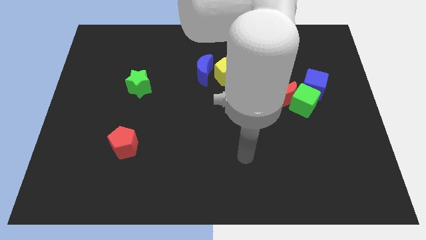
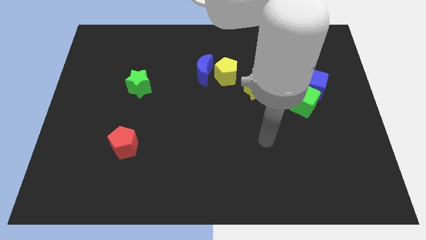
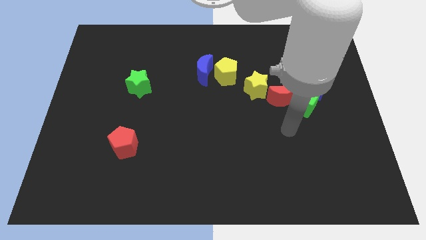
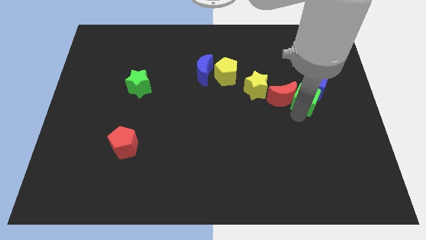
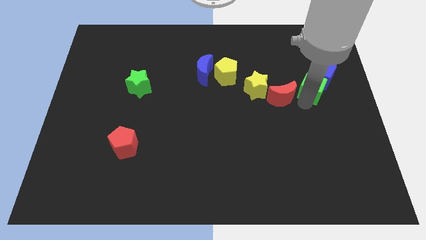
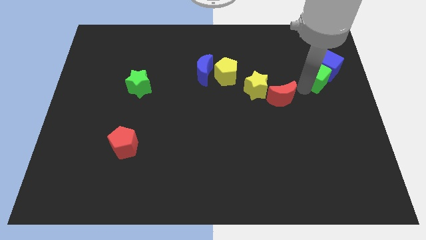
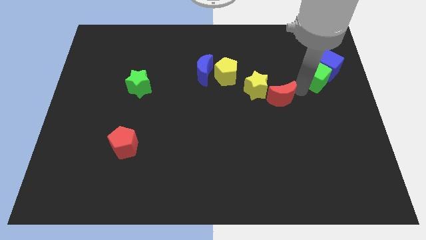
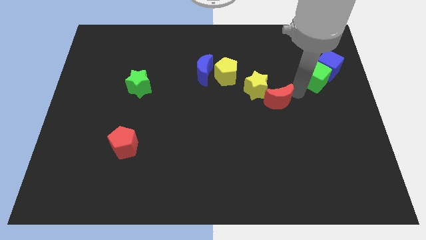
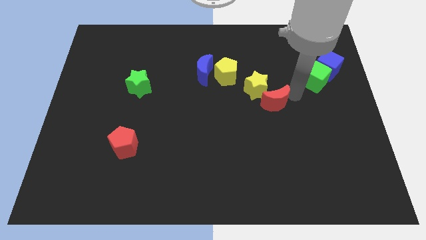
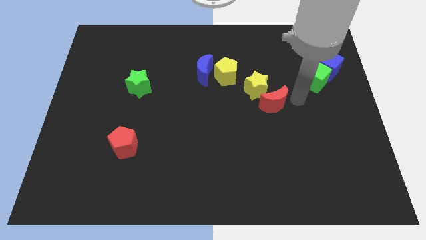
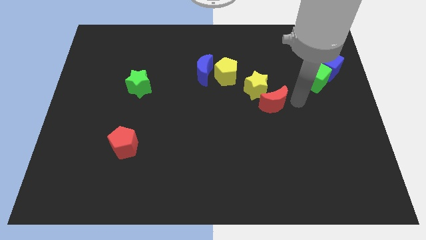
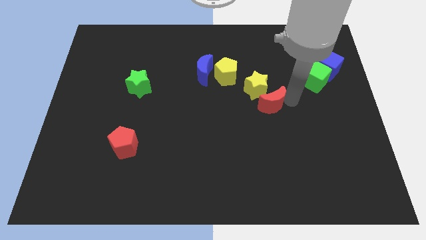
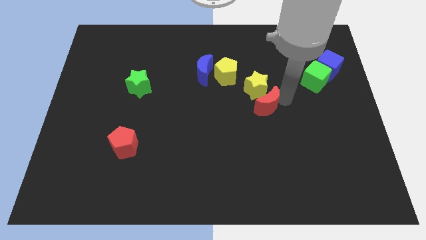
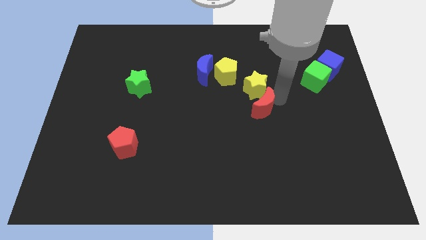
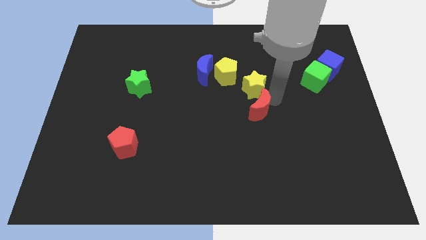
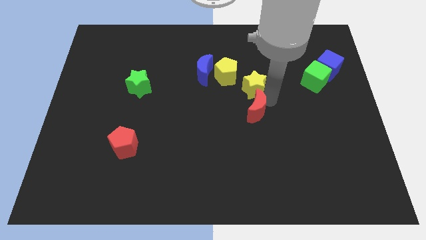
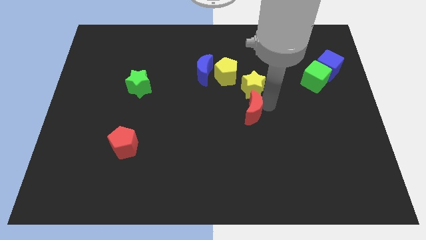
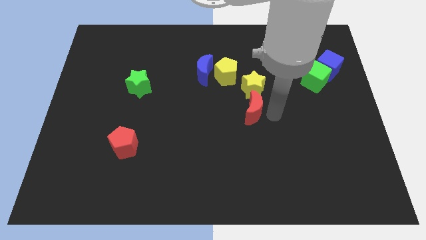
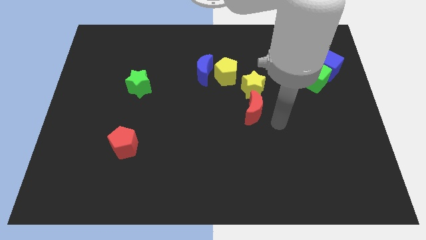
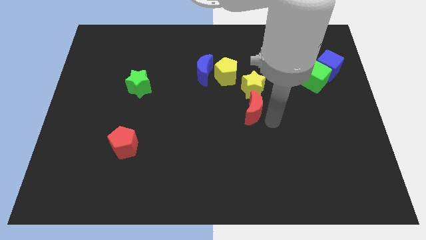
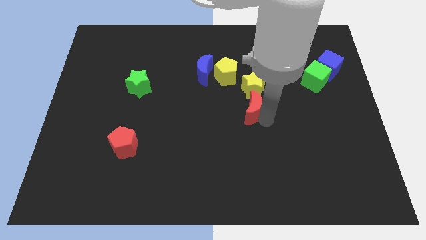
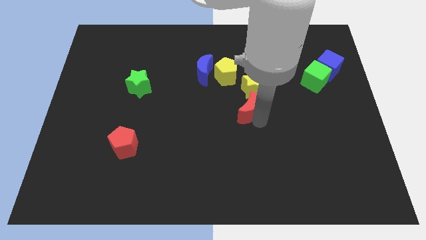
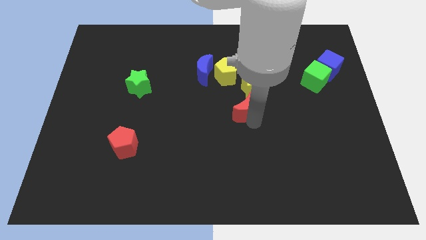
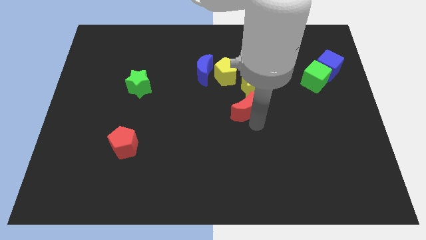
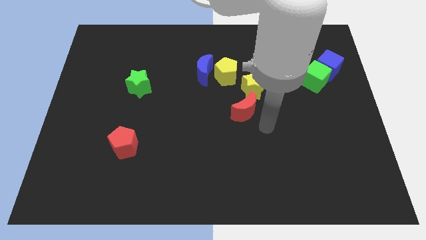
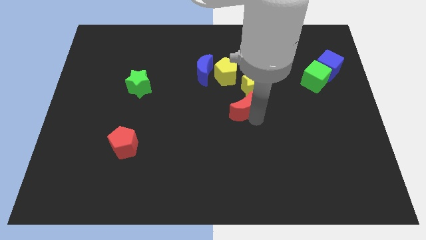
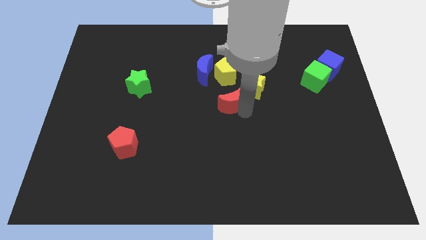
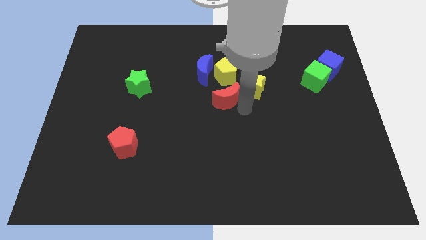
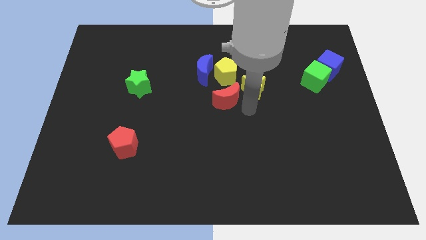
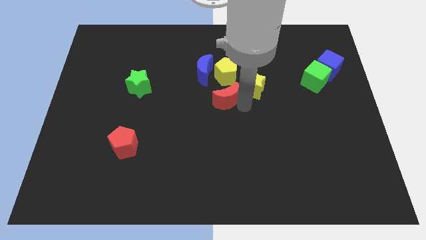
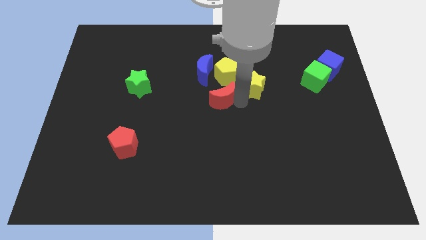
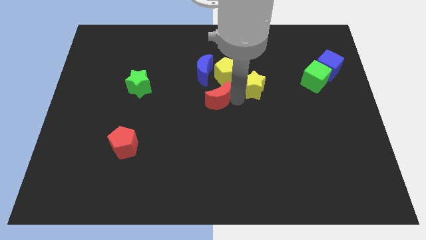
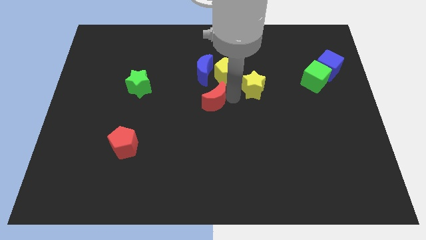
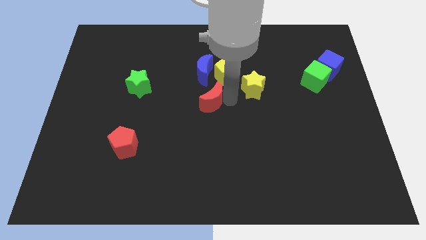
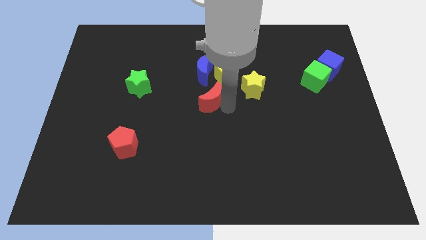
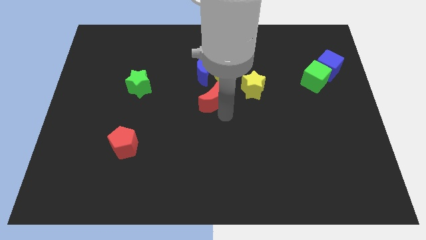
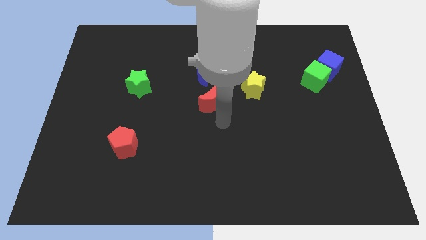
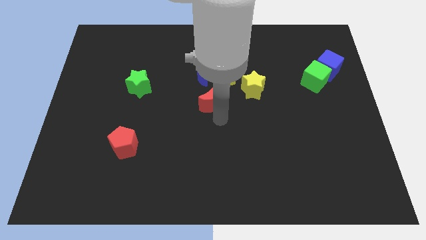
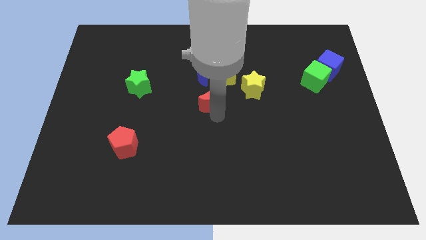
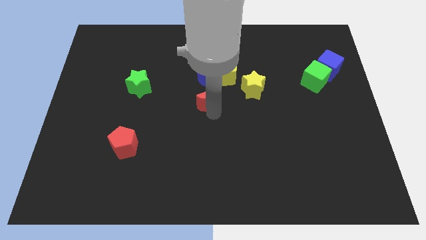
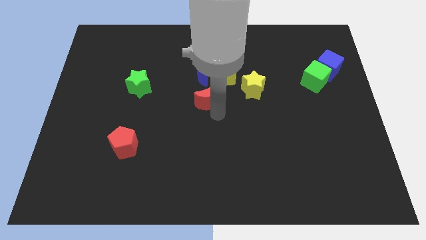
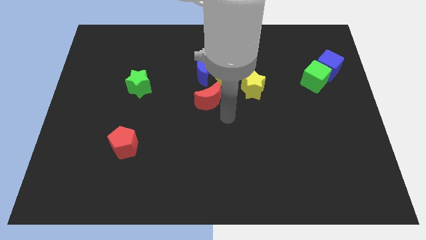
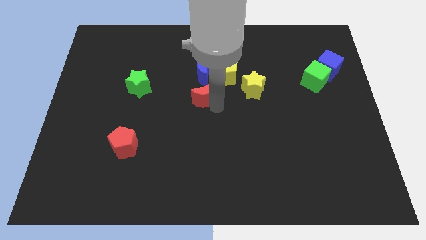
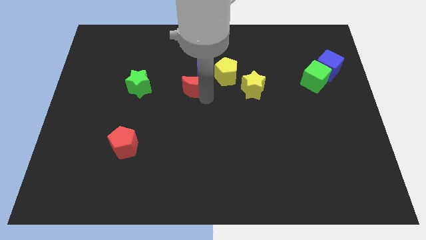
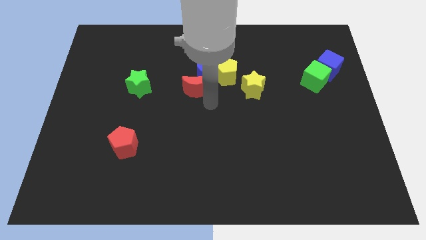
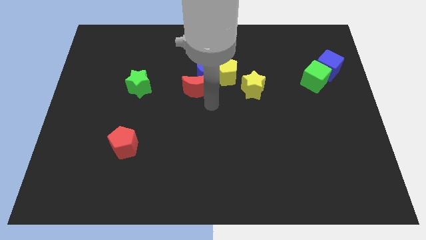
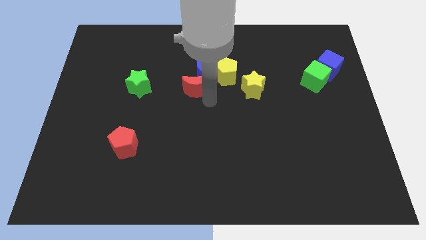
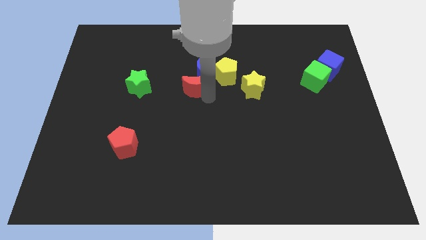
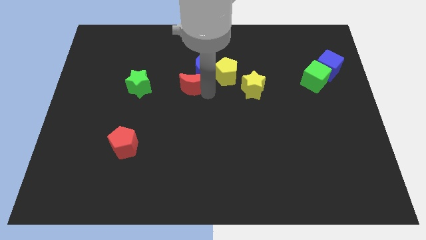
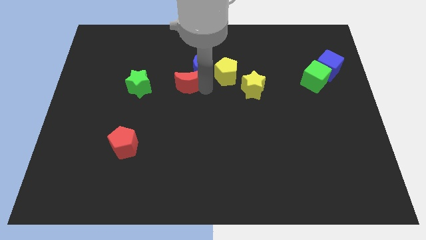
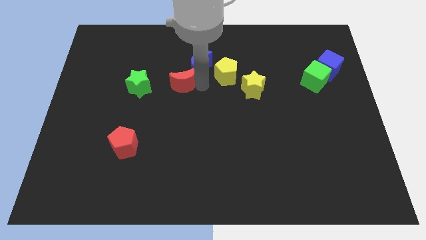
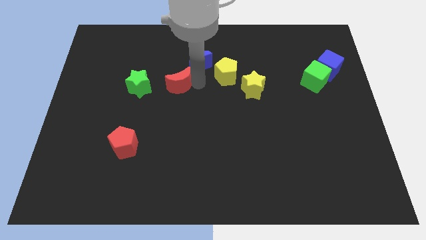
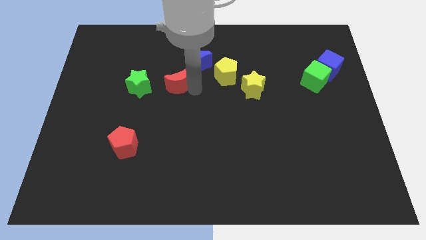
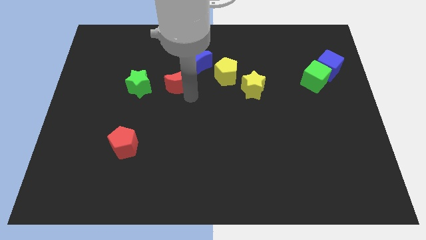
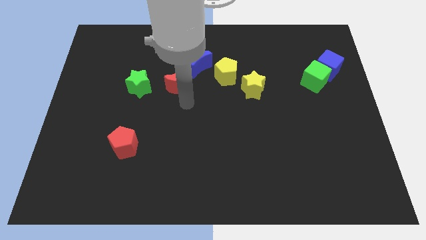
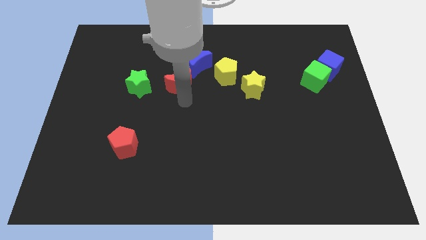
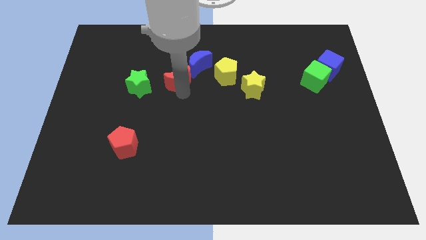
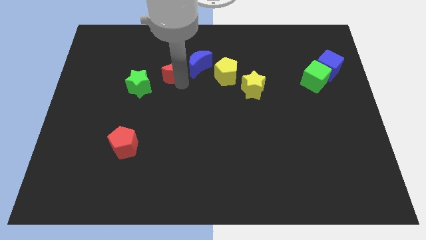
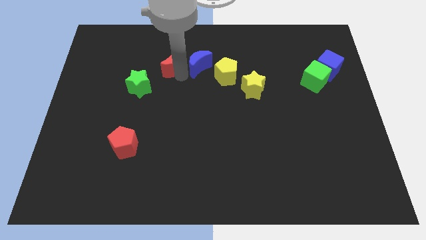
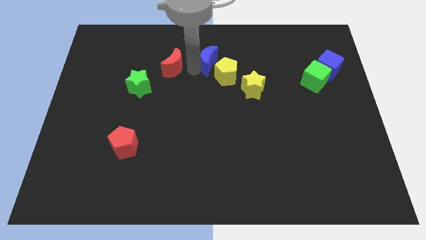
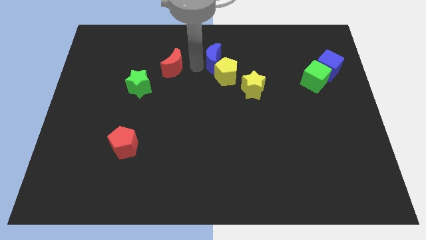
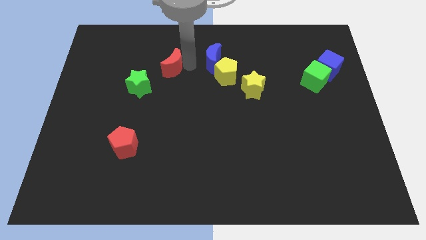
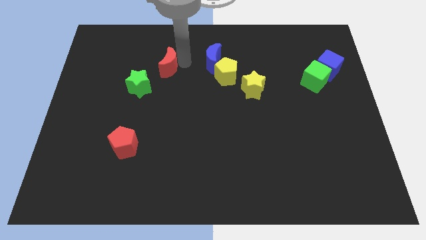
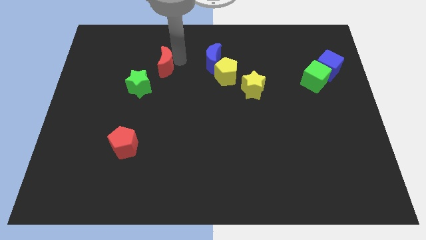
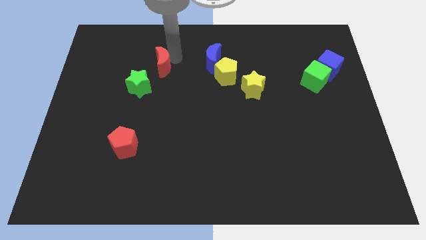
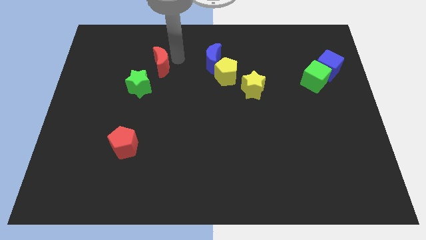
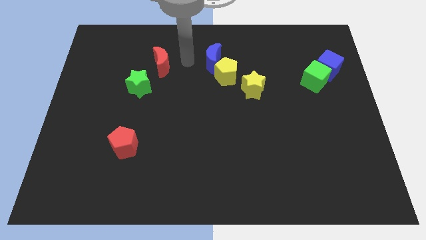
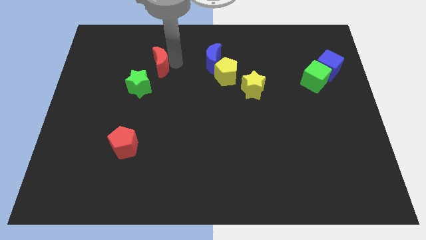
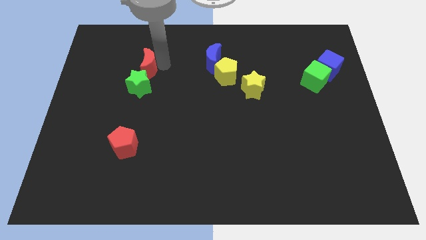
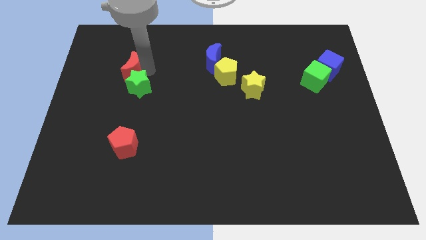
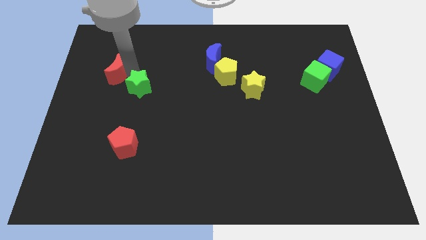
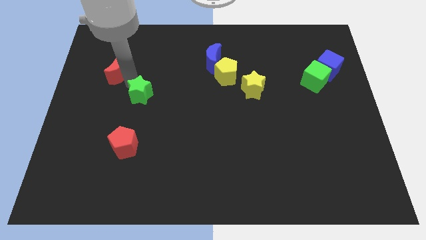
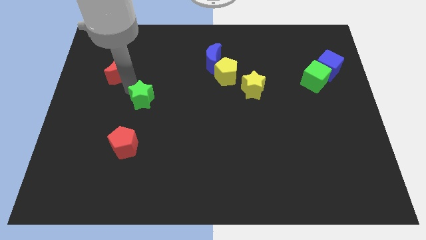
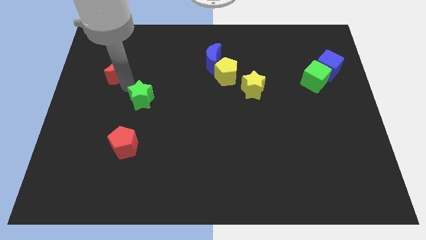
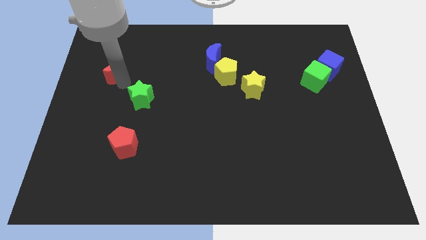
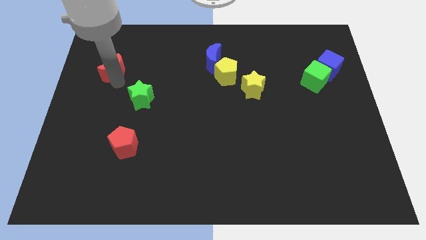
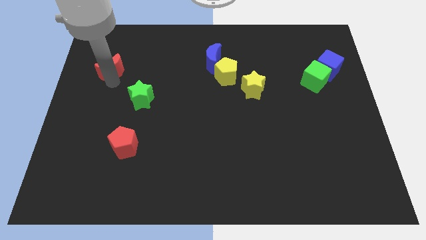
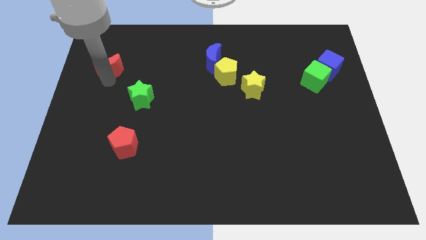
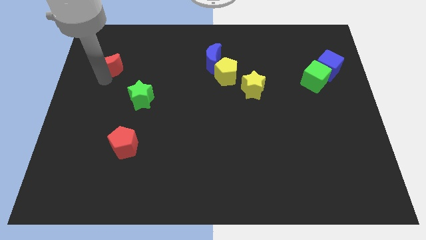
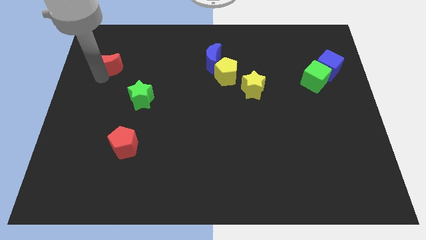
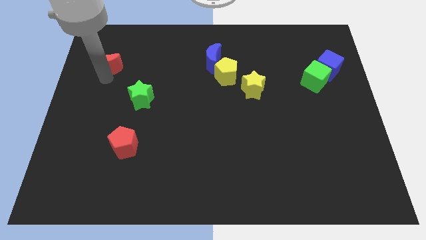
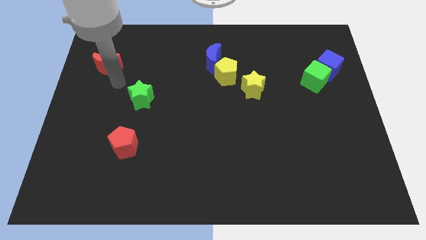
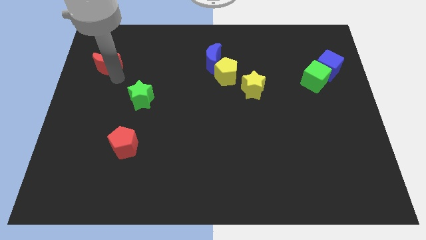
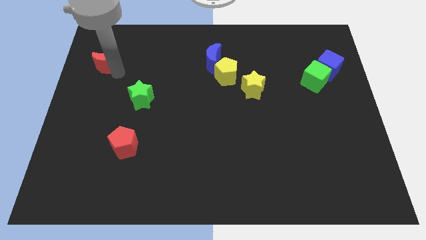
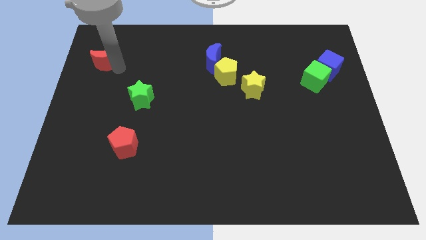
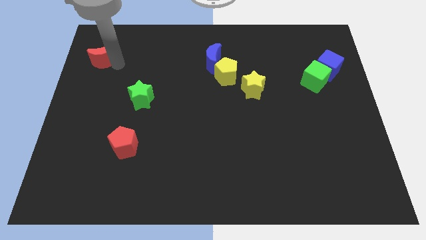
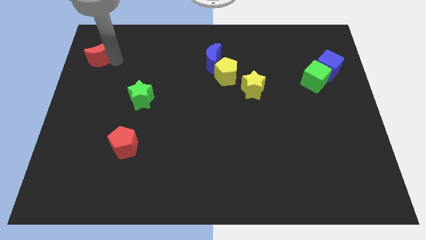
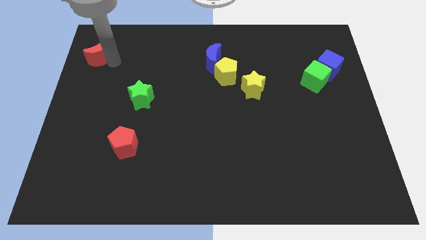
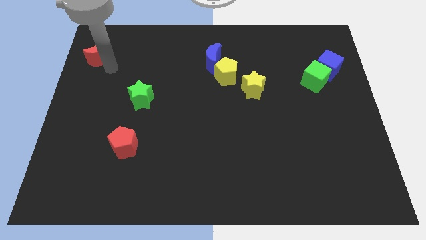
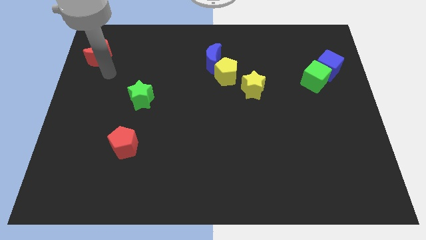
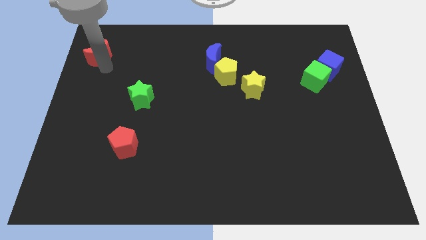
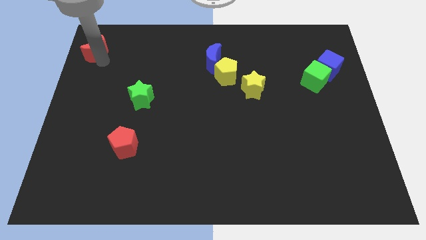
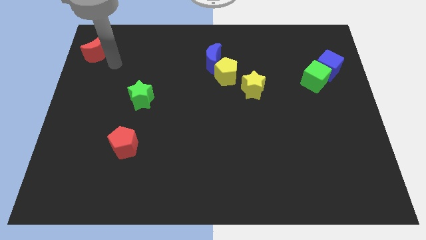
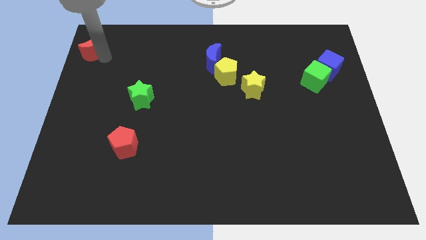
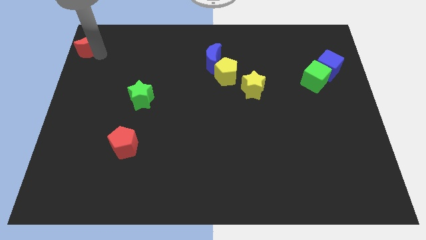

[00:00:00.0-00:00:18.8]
slide the red moon to the top left
